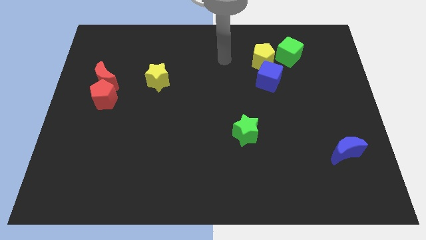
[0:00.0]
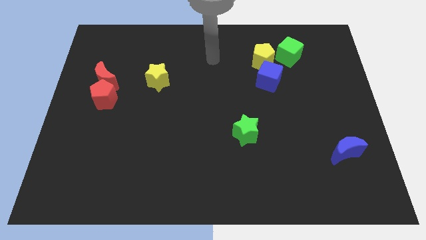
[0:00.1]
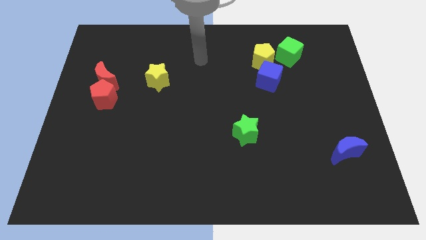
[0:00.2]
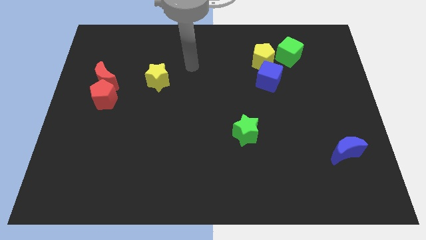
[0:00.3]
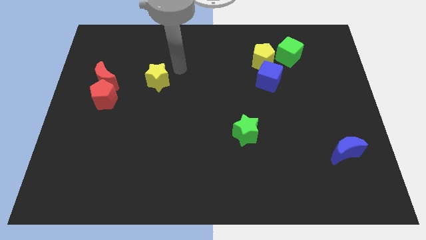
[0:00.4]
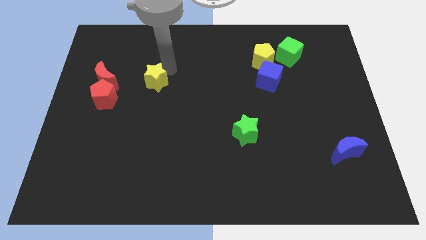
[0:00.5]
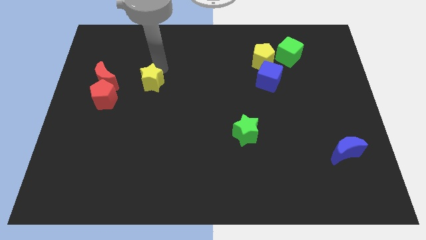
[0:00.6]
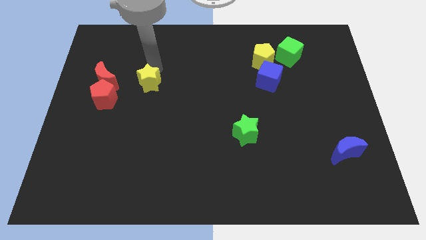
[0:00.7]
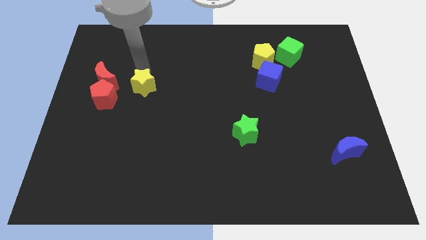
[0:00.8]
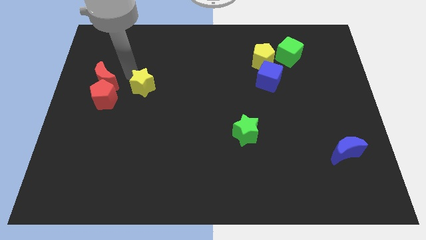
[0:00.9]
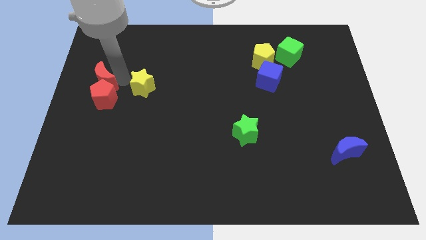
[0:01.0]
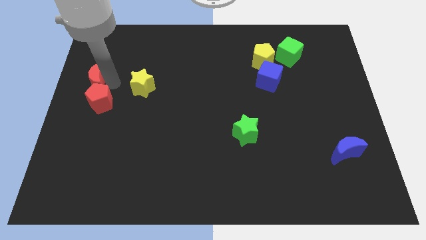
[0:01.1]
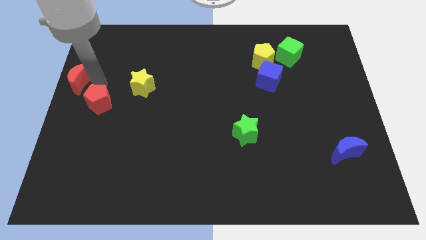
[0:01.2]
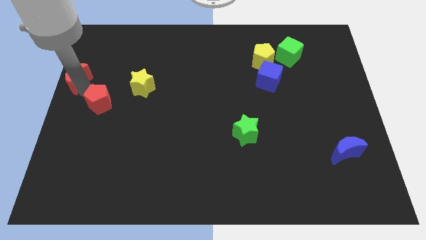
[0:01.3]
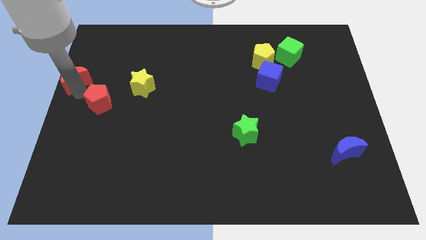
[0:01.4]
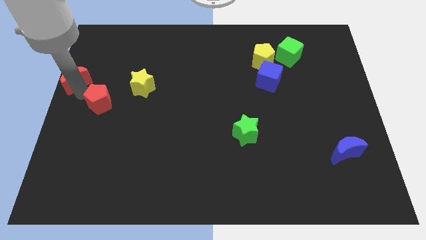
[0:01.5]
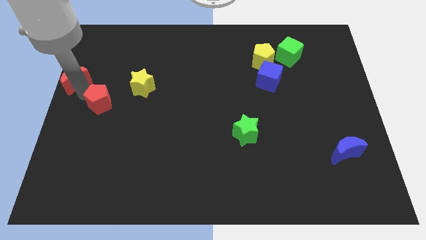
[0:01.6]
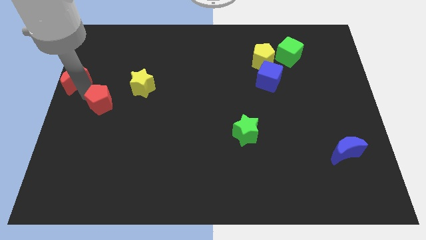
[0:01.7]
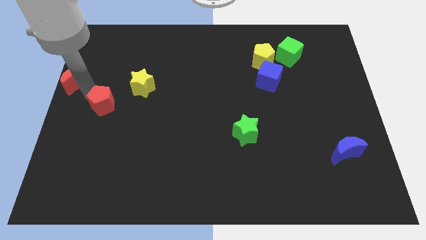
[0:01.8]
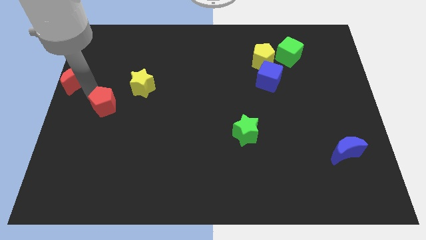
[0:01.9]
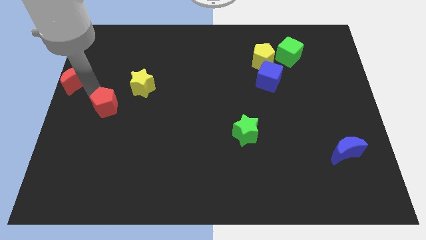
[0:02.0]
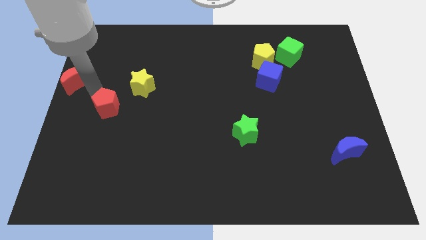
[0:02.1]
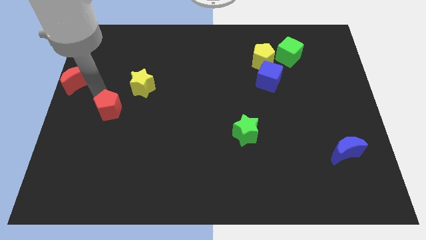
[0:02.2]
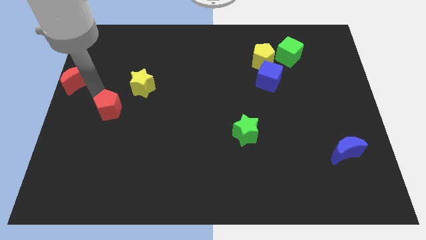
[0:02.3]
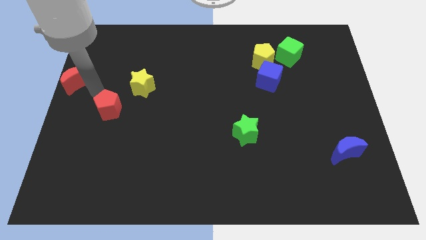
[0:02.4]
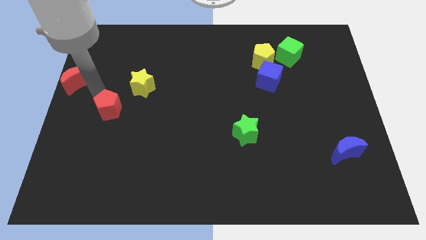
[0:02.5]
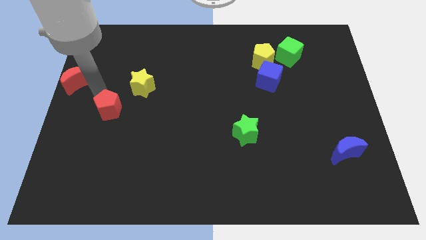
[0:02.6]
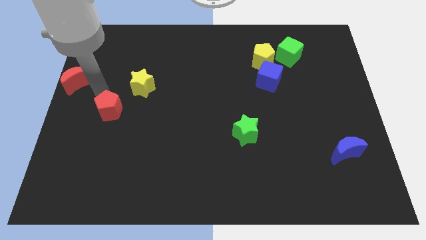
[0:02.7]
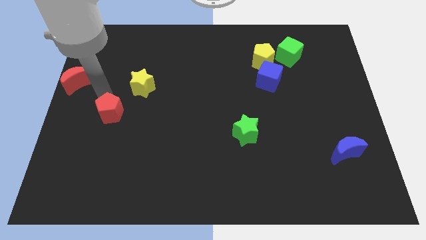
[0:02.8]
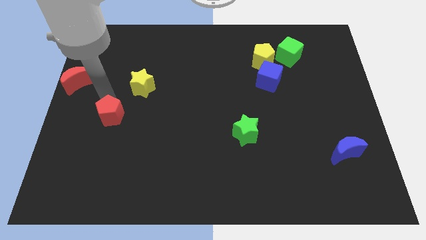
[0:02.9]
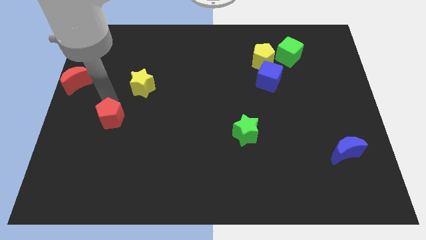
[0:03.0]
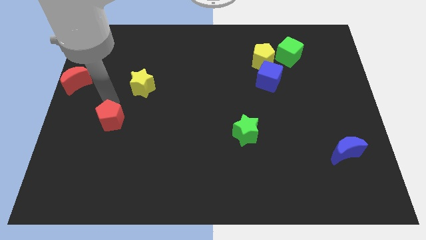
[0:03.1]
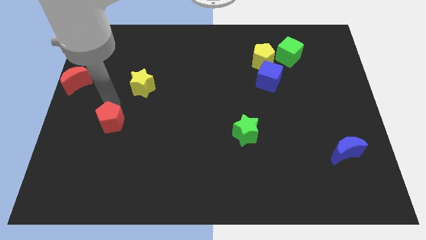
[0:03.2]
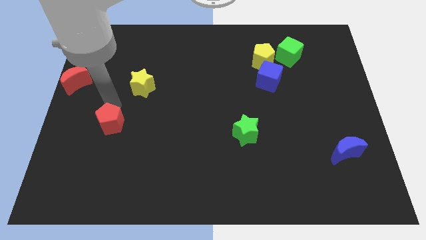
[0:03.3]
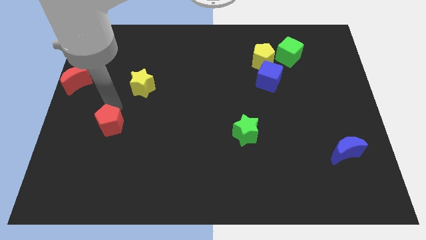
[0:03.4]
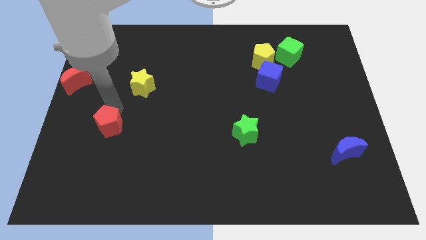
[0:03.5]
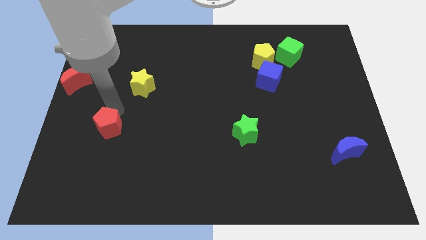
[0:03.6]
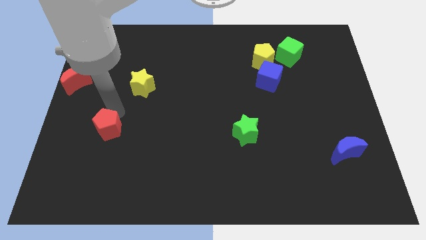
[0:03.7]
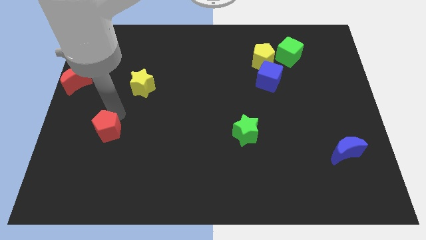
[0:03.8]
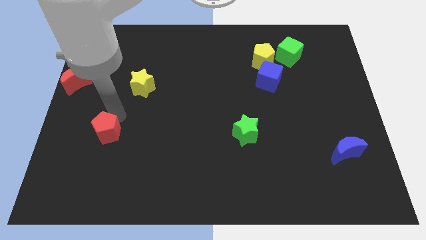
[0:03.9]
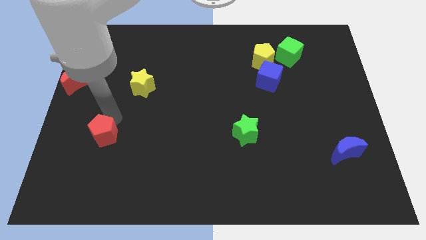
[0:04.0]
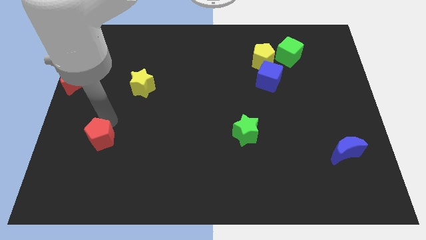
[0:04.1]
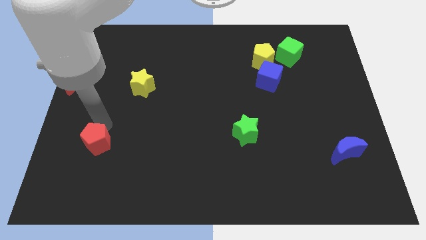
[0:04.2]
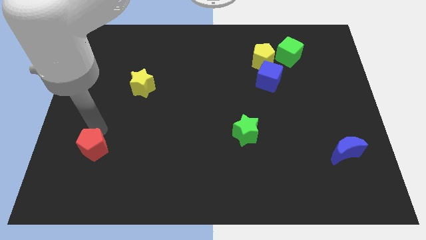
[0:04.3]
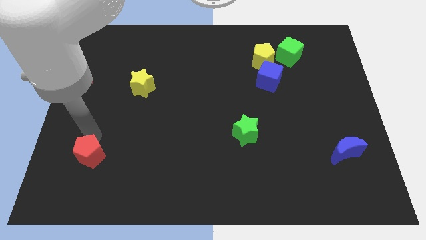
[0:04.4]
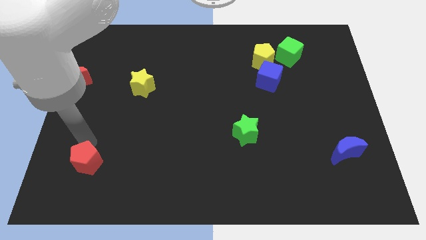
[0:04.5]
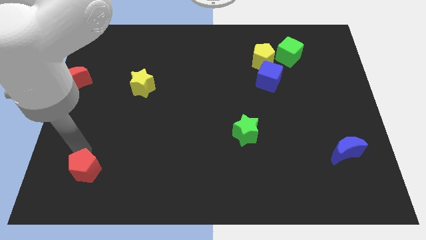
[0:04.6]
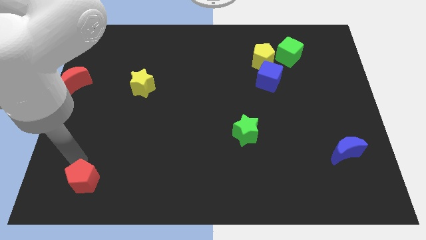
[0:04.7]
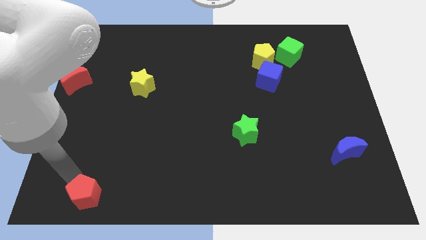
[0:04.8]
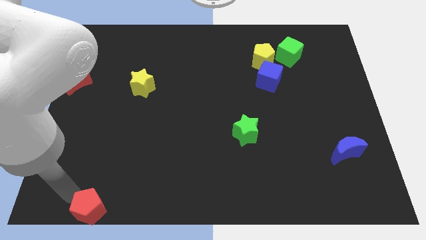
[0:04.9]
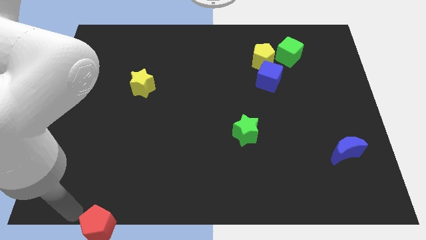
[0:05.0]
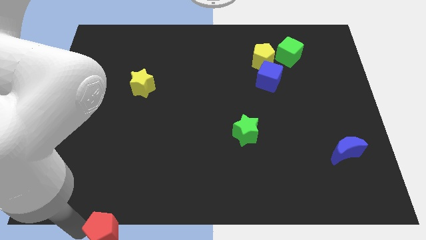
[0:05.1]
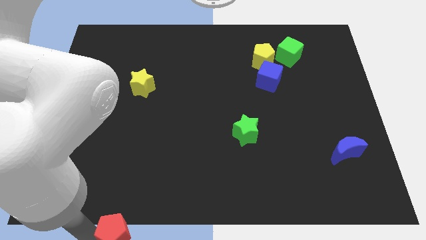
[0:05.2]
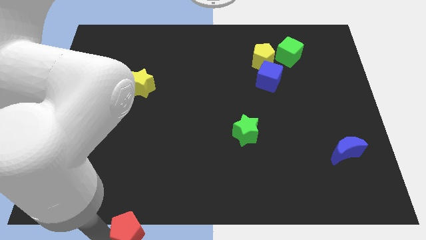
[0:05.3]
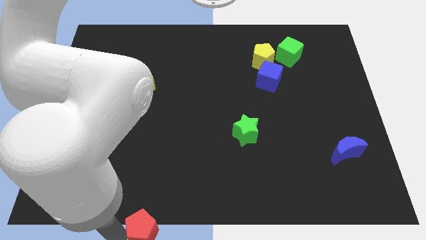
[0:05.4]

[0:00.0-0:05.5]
slide the red pentagon to the bottom

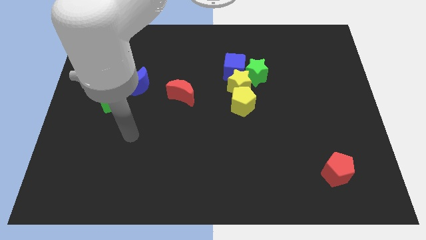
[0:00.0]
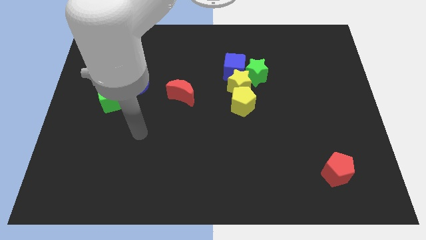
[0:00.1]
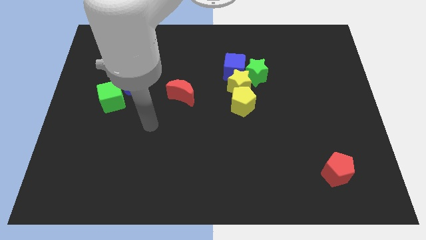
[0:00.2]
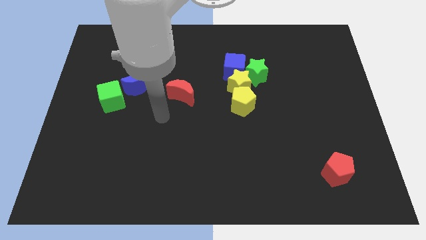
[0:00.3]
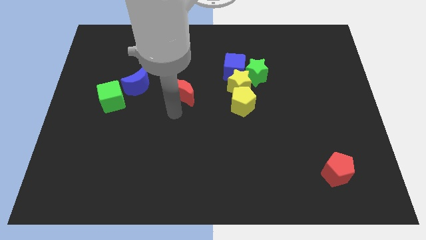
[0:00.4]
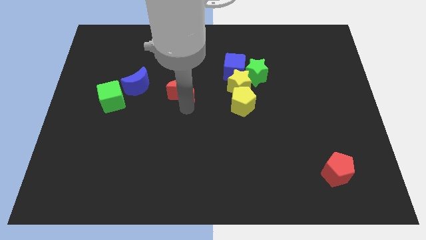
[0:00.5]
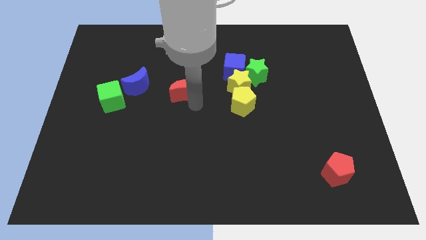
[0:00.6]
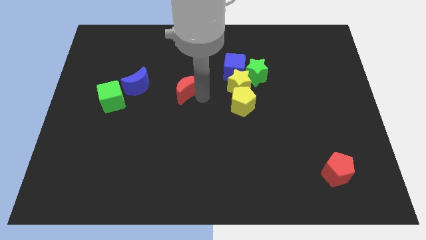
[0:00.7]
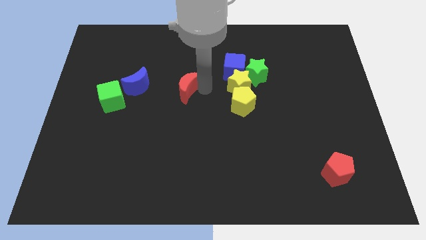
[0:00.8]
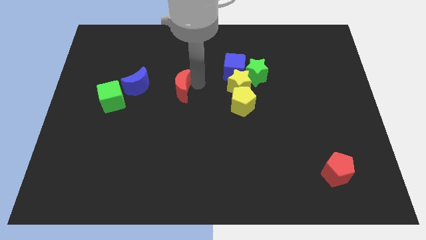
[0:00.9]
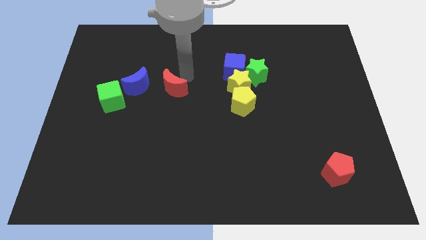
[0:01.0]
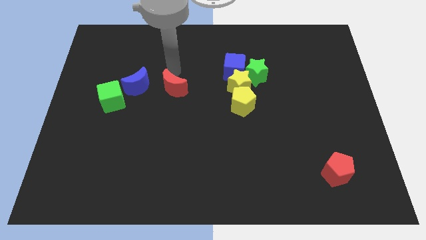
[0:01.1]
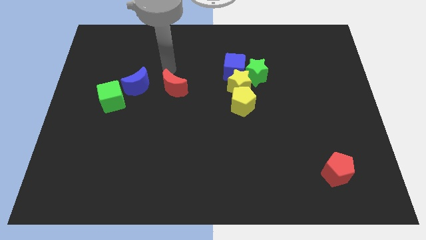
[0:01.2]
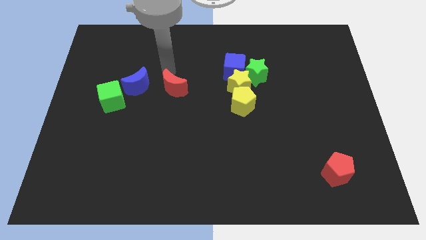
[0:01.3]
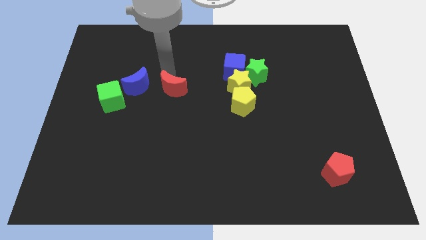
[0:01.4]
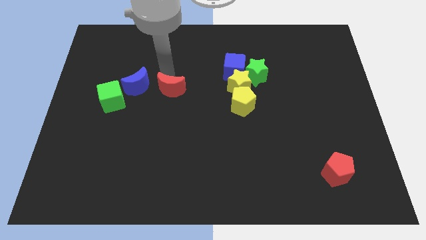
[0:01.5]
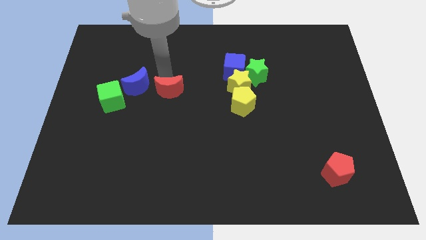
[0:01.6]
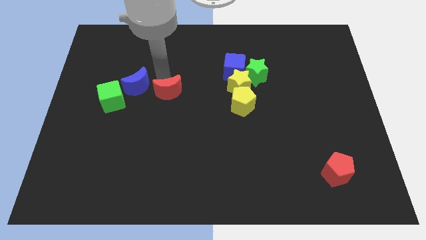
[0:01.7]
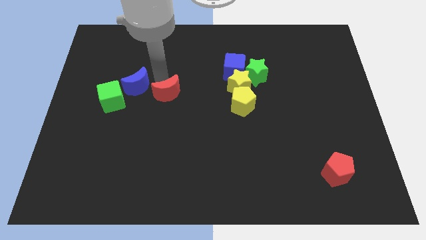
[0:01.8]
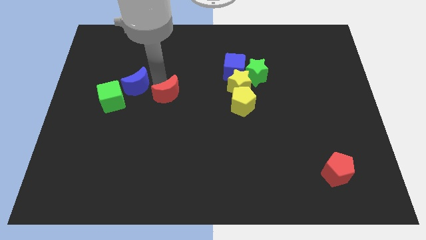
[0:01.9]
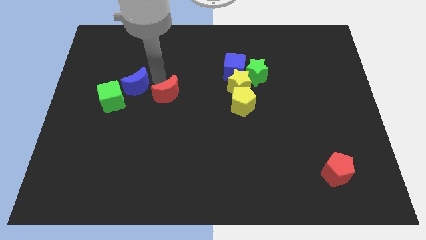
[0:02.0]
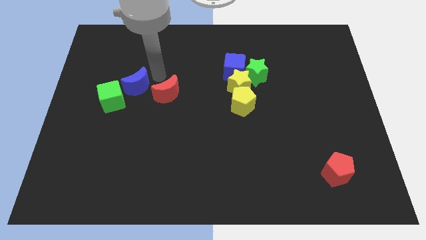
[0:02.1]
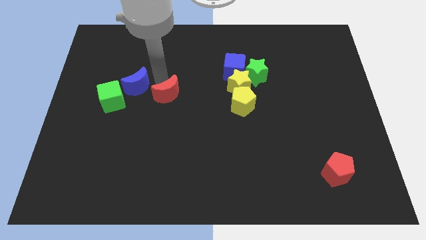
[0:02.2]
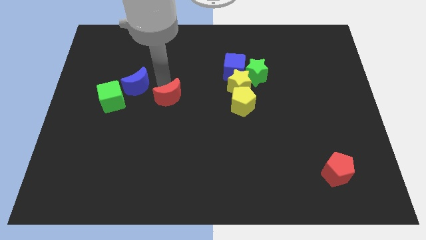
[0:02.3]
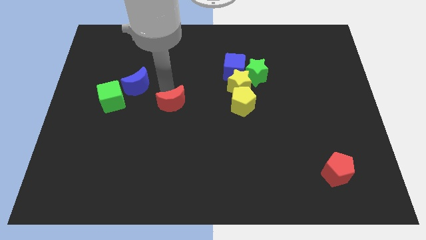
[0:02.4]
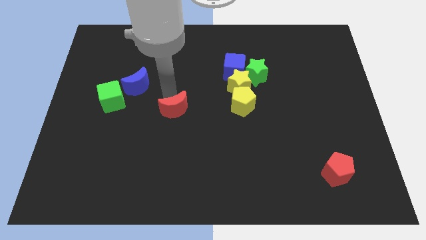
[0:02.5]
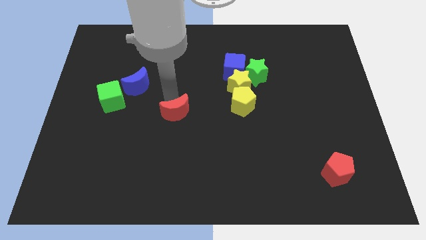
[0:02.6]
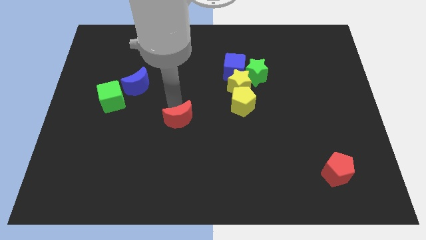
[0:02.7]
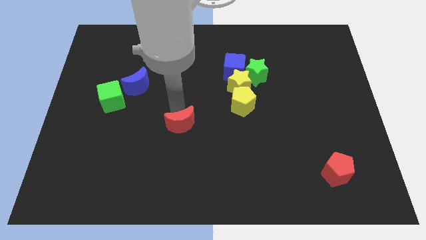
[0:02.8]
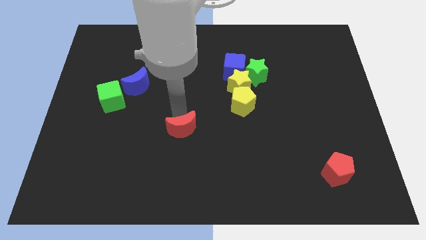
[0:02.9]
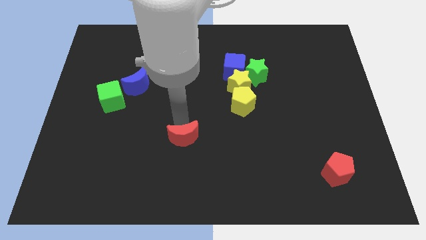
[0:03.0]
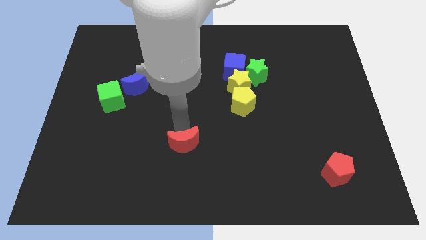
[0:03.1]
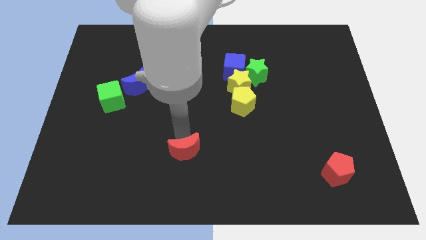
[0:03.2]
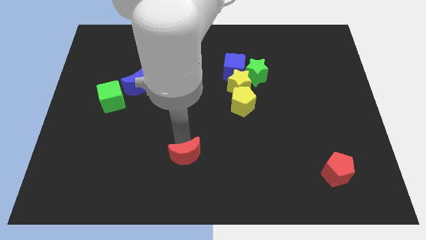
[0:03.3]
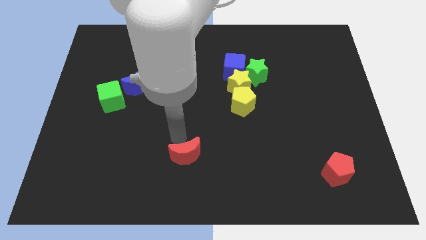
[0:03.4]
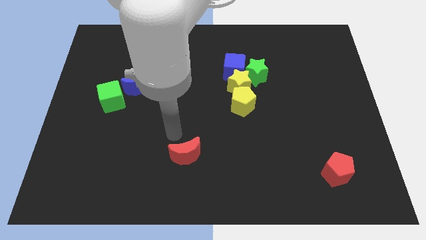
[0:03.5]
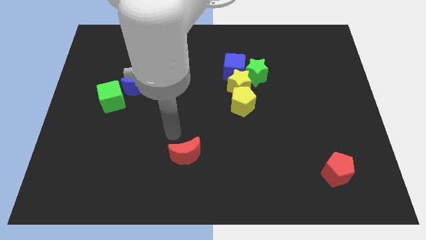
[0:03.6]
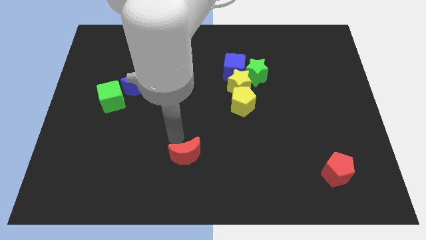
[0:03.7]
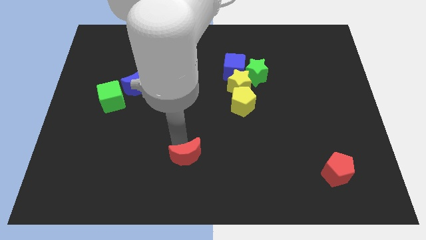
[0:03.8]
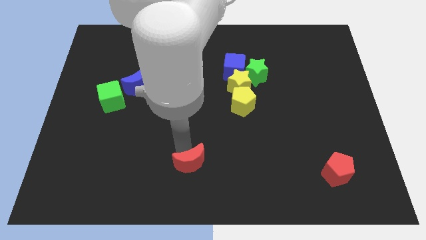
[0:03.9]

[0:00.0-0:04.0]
slide the red moon to the bottom
